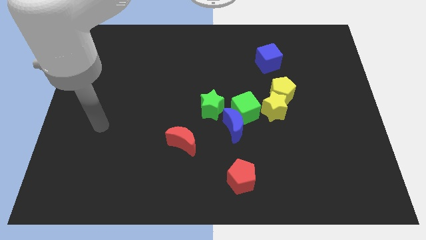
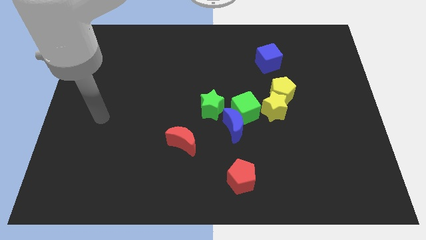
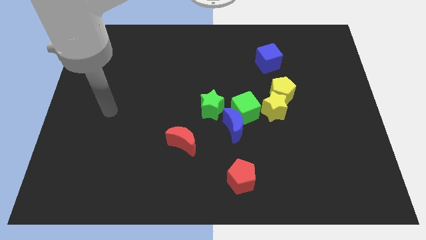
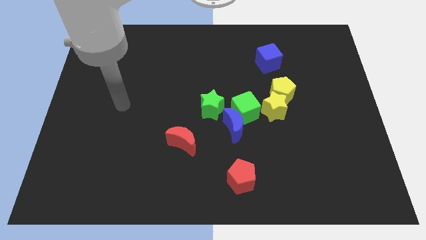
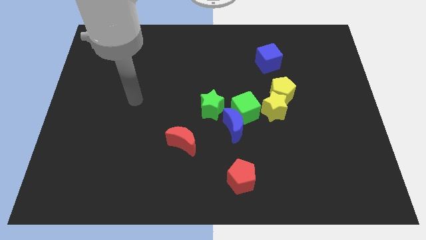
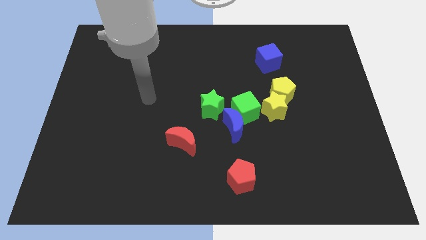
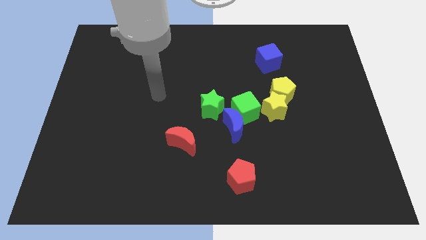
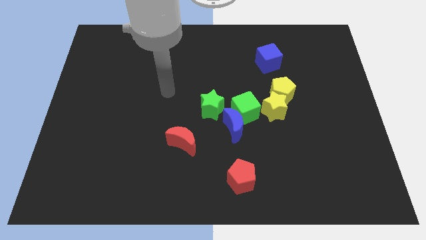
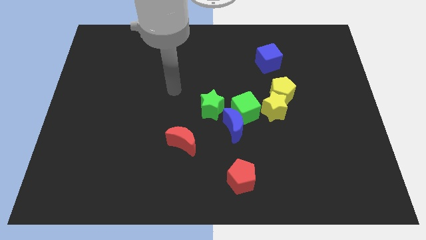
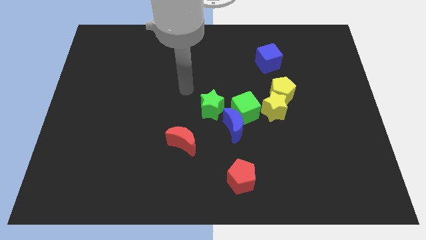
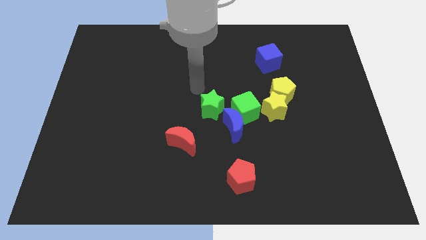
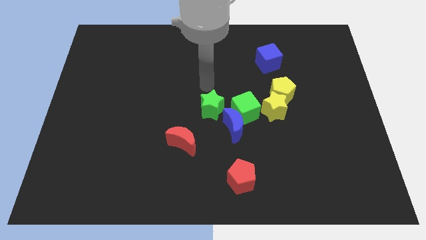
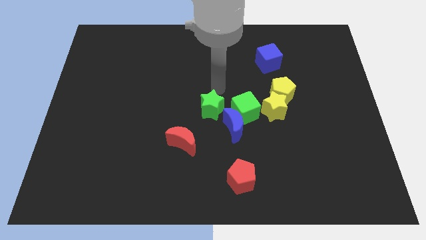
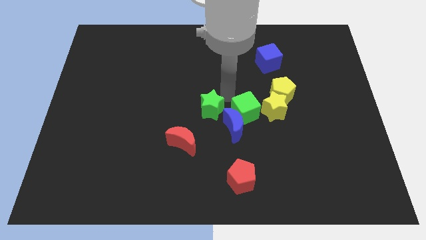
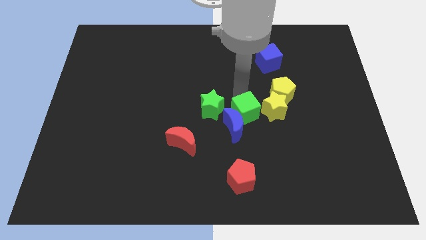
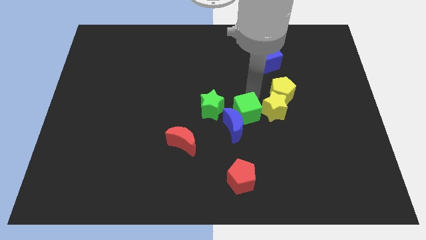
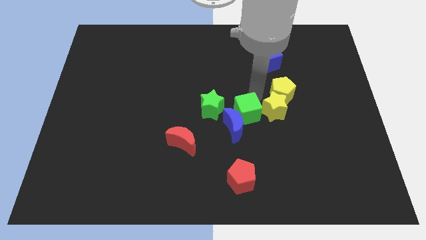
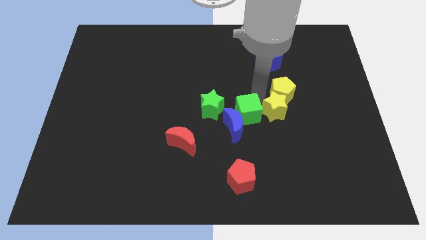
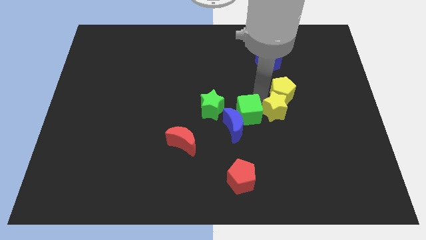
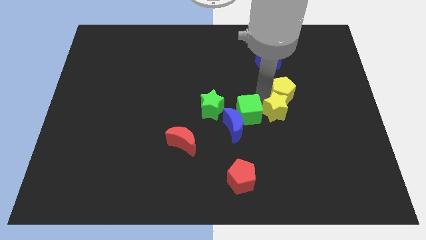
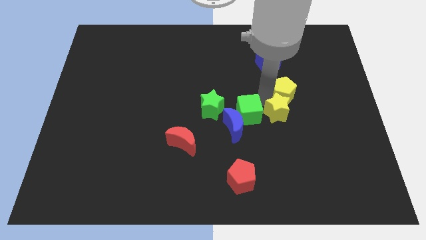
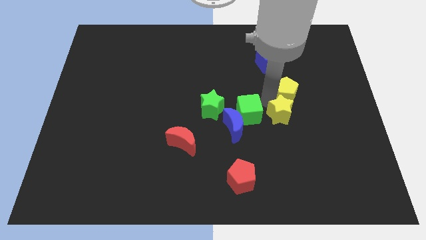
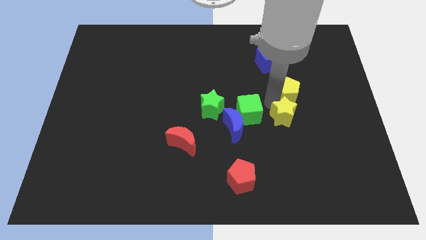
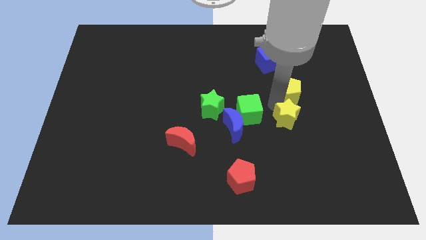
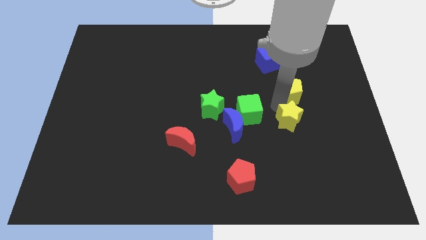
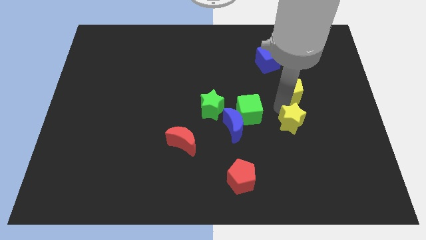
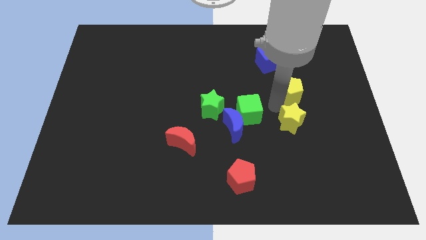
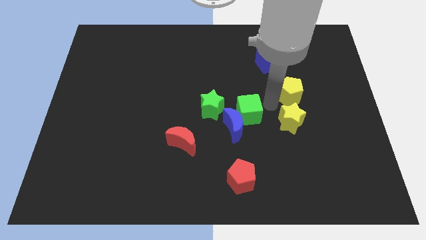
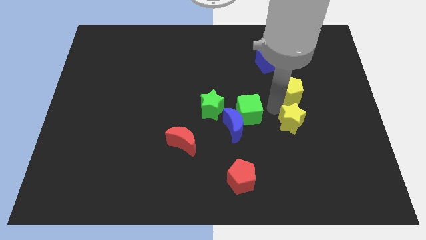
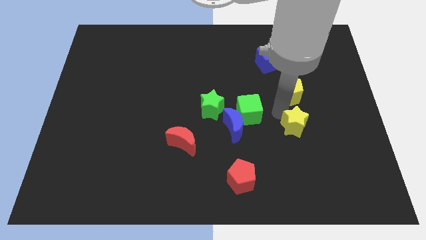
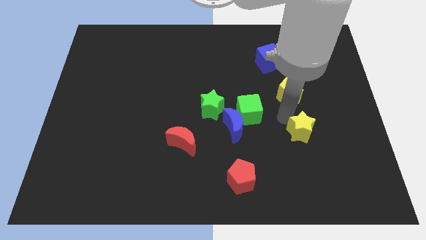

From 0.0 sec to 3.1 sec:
move the yellow star away from the yellow pentagon and green cube

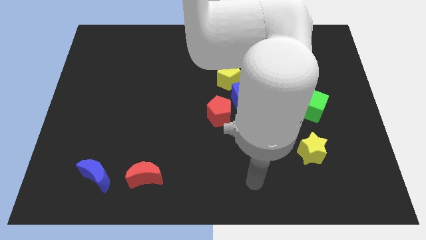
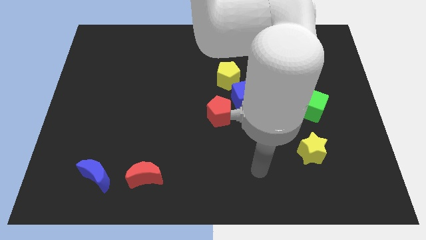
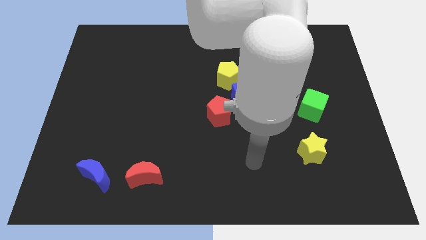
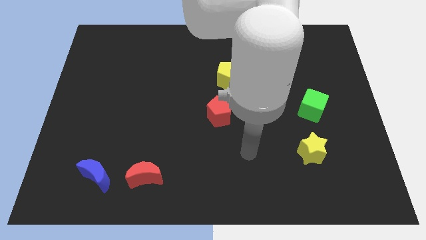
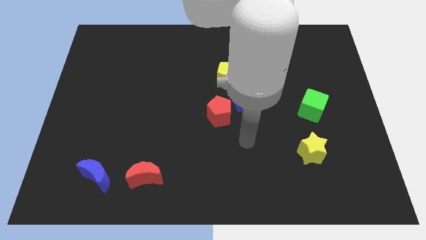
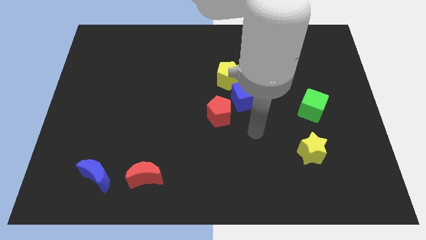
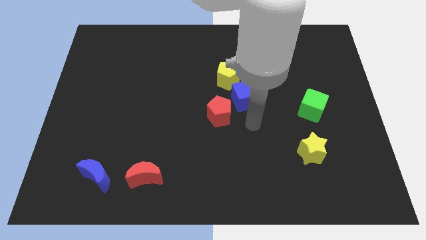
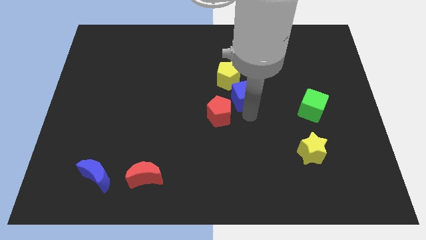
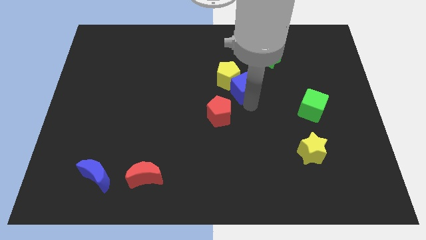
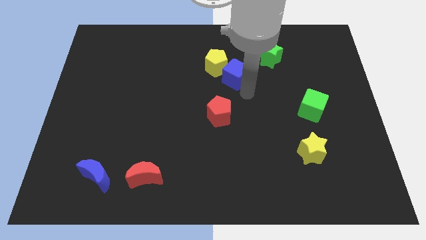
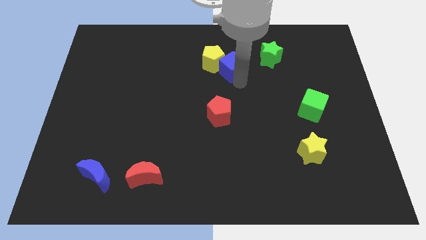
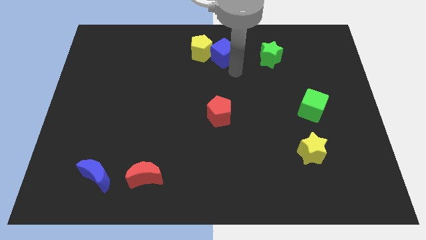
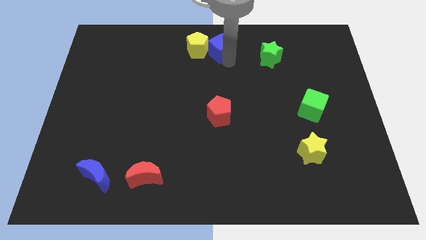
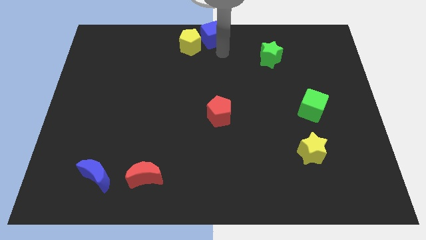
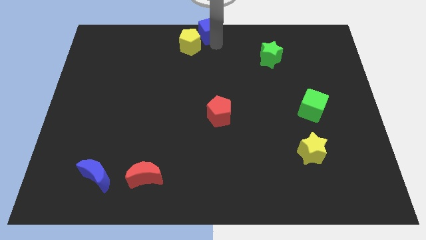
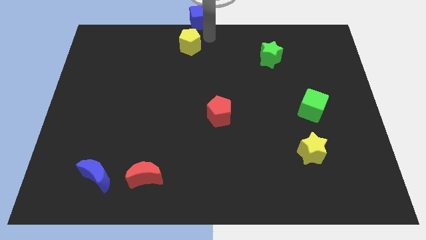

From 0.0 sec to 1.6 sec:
move the yellow pentagon away from the blue cube

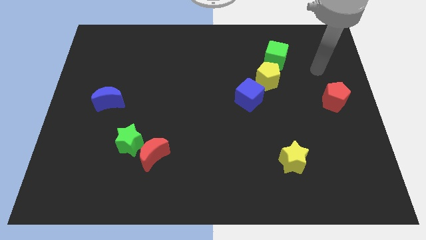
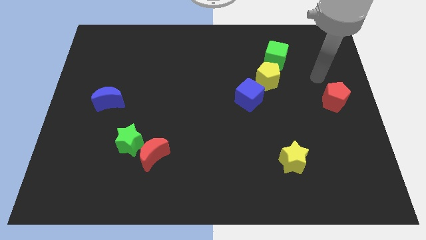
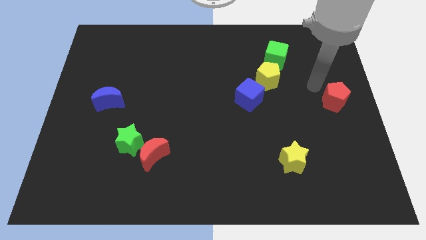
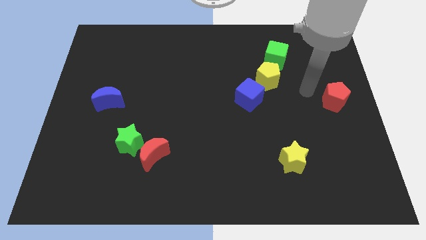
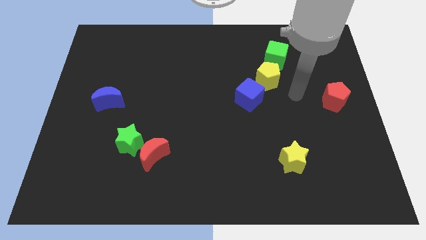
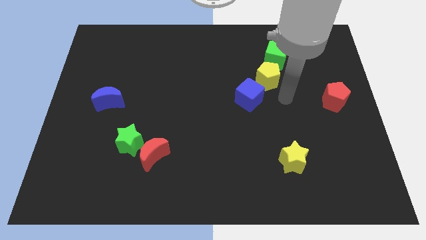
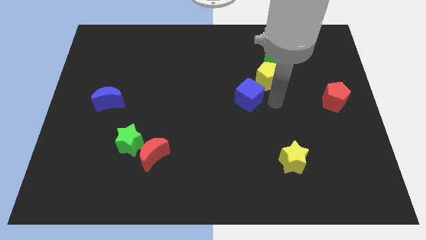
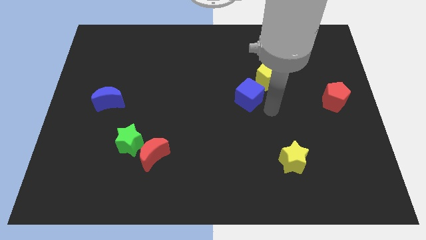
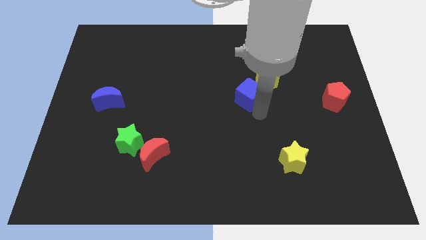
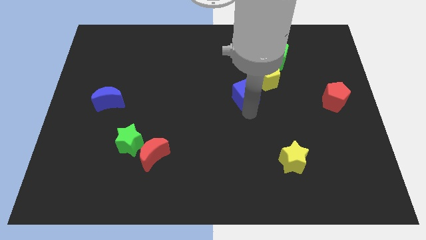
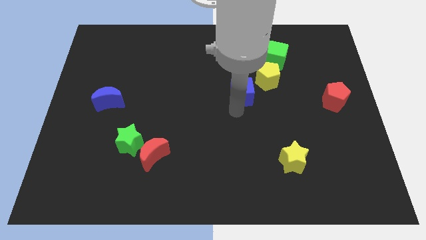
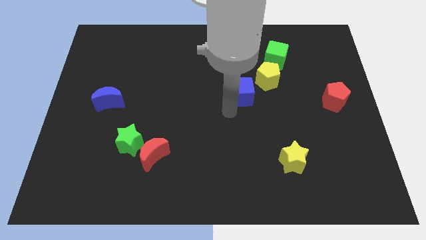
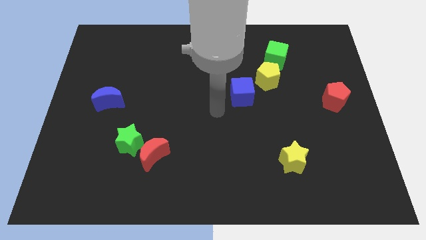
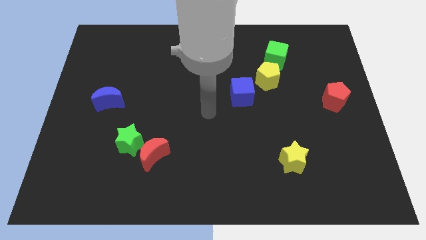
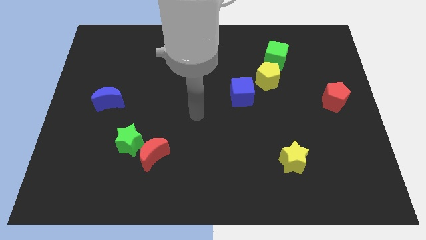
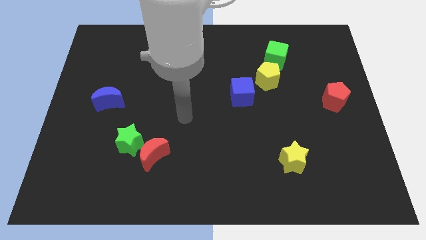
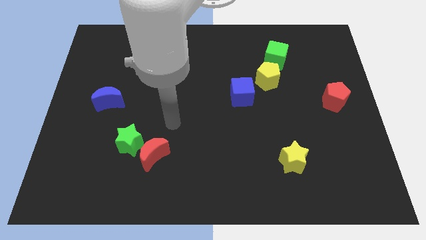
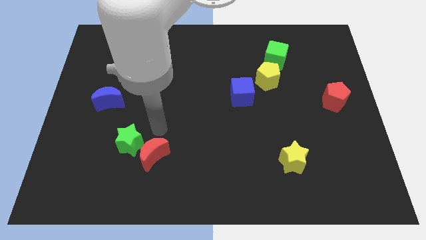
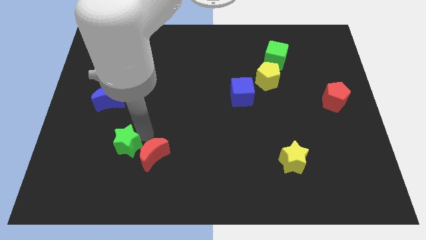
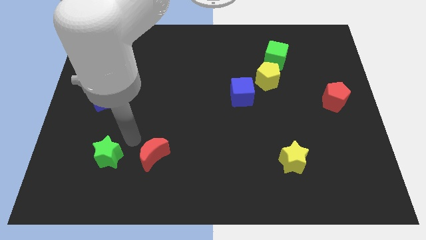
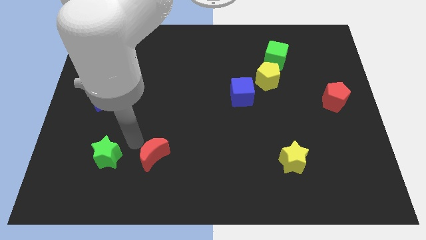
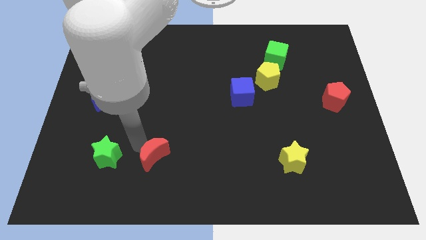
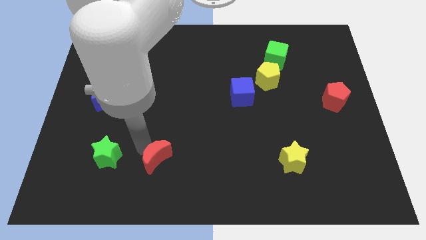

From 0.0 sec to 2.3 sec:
move the red moon away from the green star

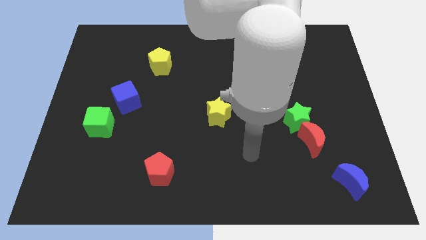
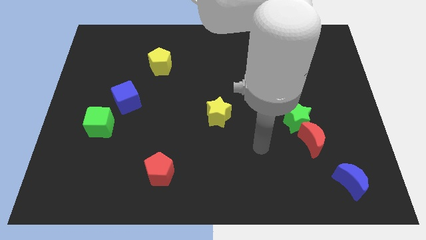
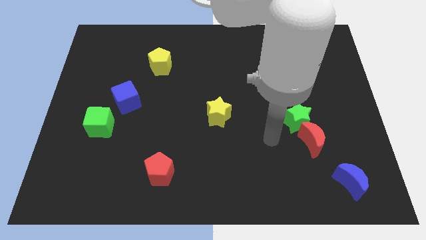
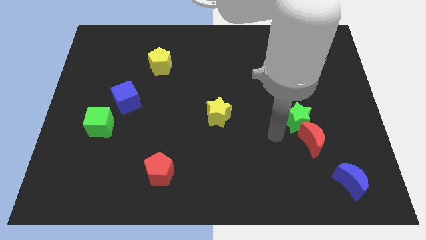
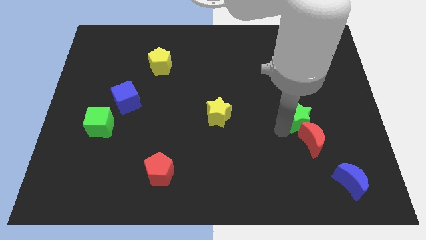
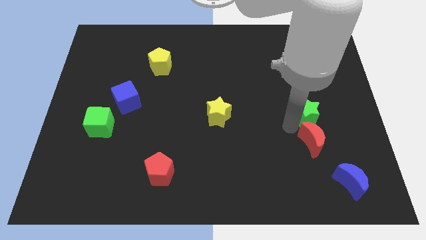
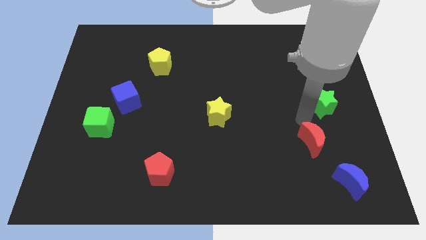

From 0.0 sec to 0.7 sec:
pull the red moon apart from the green star

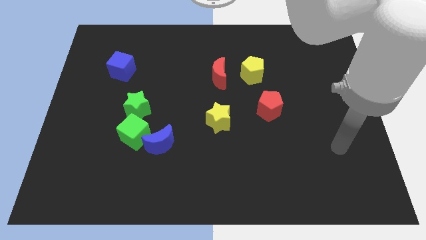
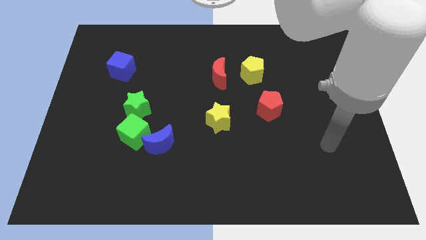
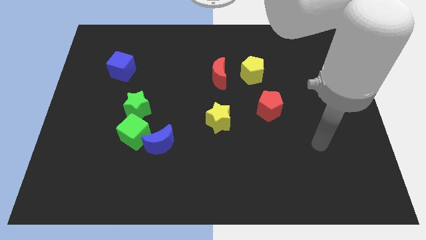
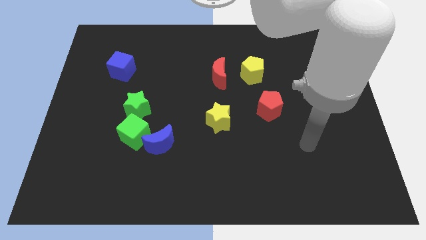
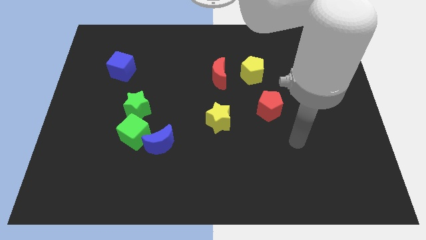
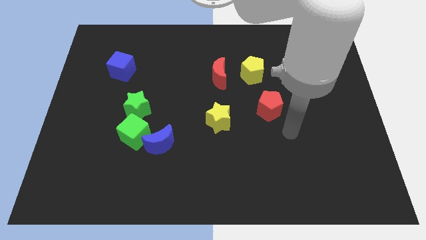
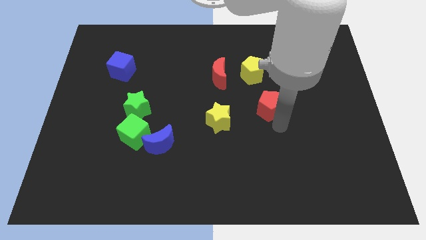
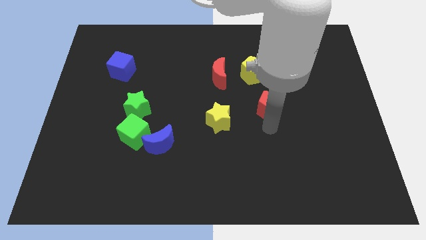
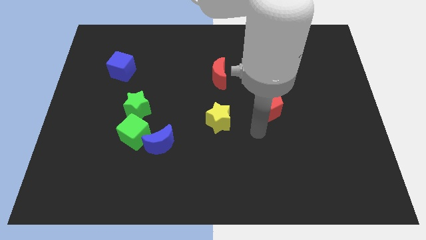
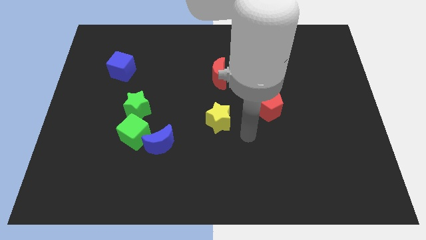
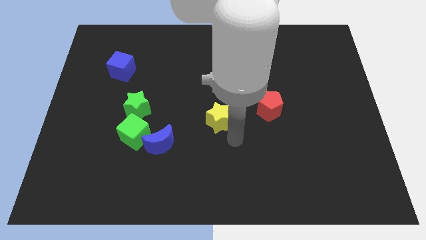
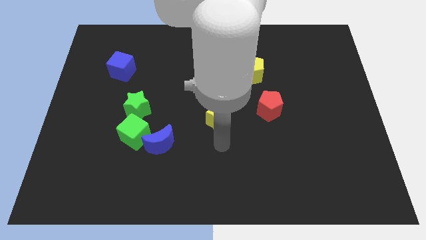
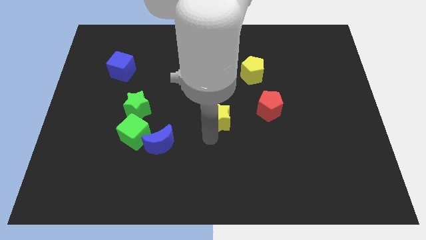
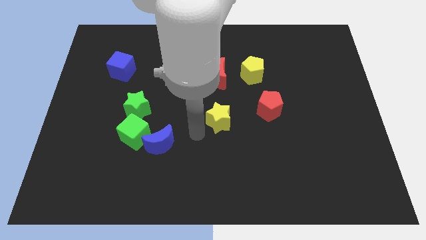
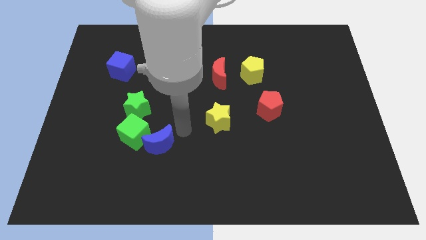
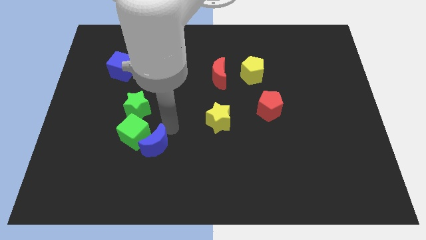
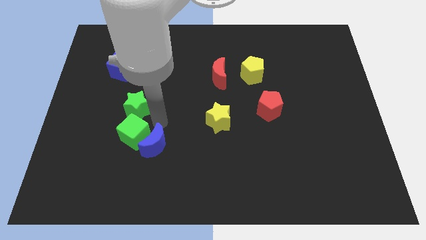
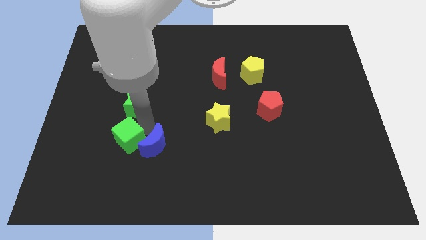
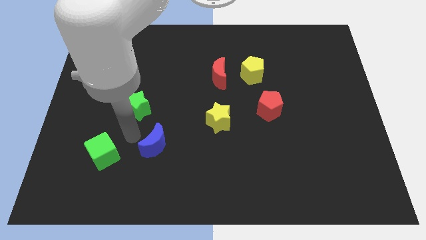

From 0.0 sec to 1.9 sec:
separate the blue moon from the green cube
